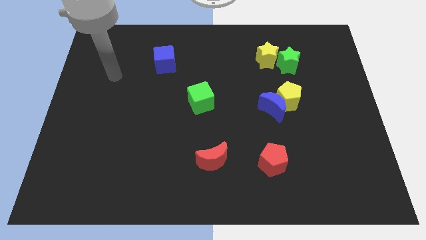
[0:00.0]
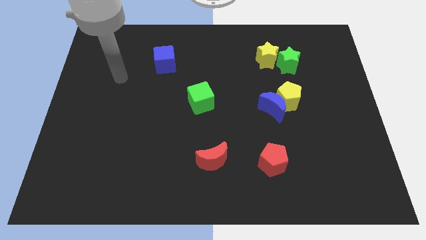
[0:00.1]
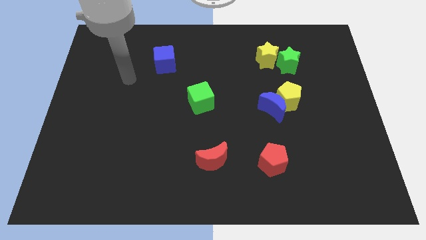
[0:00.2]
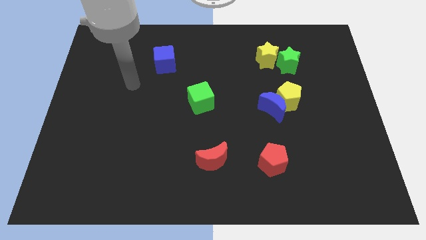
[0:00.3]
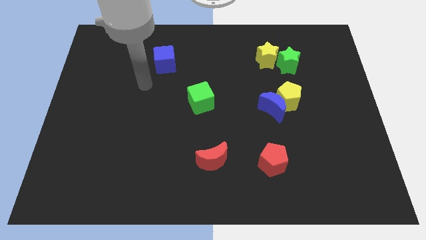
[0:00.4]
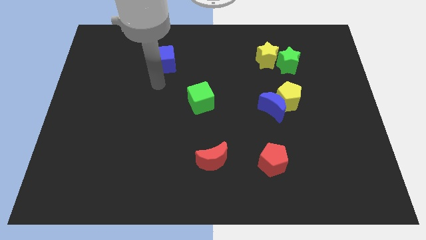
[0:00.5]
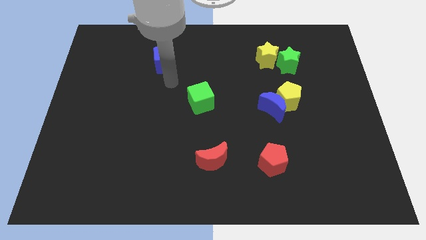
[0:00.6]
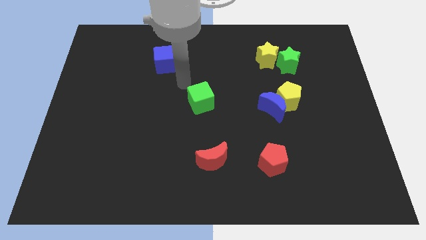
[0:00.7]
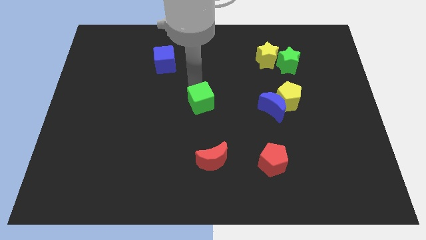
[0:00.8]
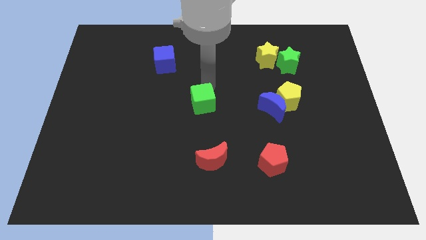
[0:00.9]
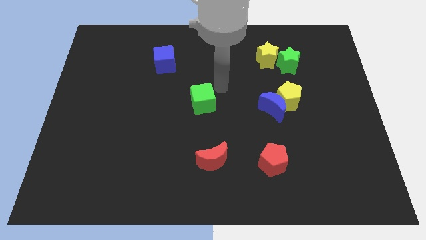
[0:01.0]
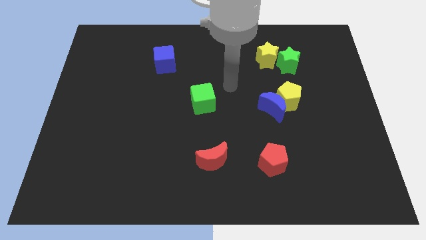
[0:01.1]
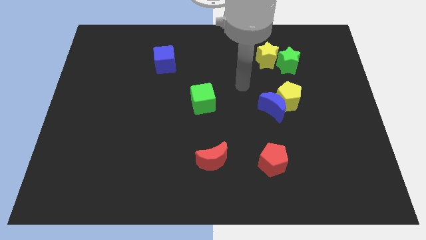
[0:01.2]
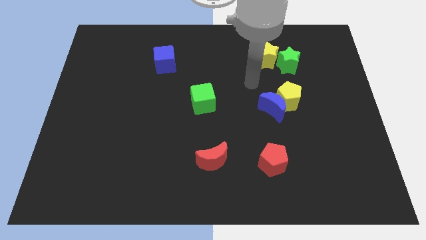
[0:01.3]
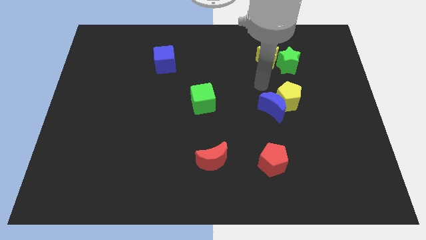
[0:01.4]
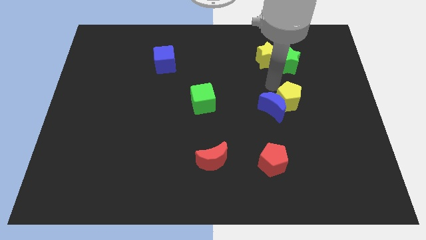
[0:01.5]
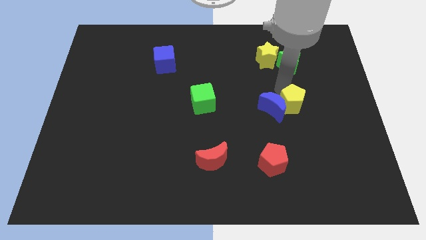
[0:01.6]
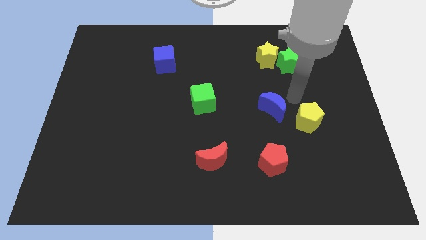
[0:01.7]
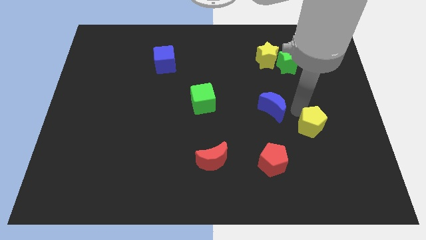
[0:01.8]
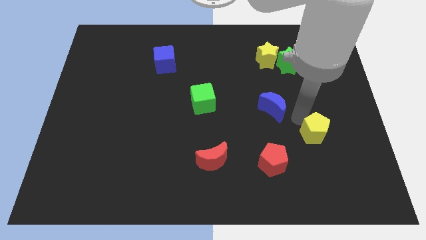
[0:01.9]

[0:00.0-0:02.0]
pull the blue moon apart from the yellow pentagon

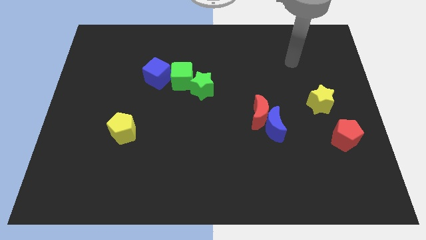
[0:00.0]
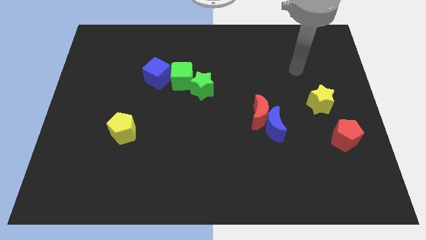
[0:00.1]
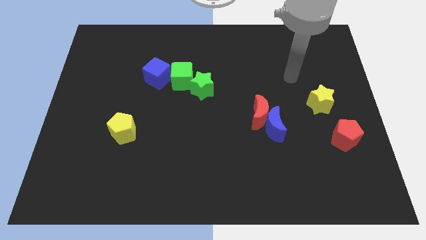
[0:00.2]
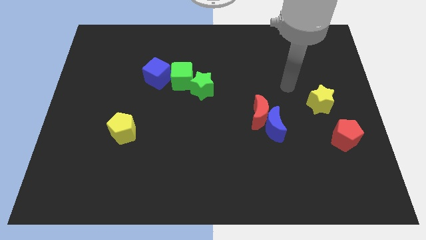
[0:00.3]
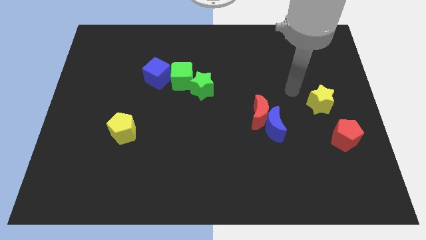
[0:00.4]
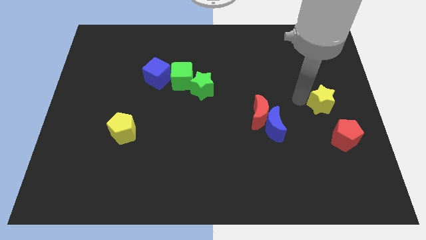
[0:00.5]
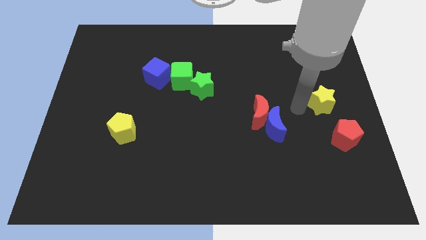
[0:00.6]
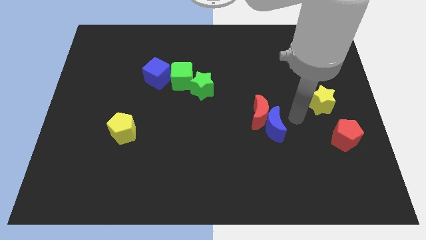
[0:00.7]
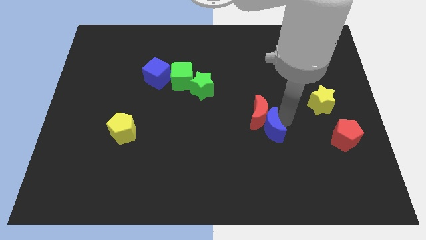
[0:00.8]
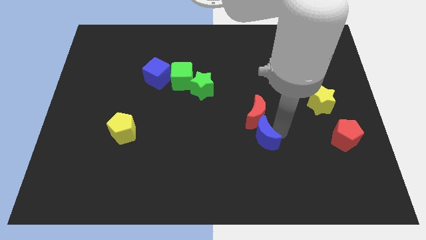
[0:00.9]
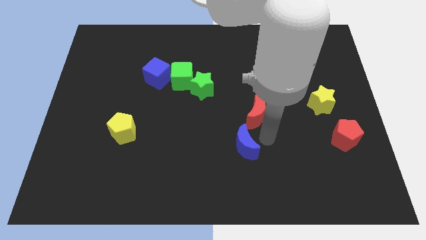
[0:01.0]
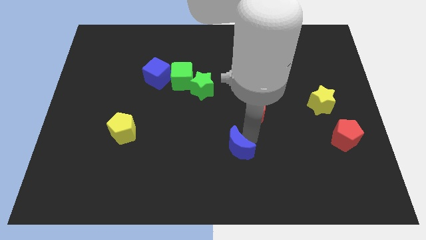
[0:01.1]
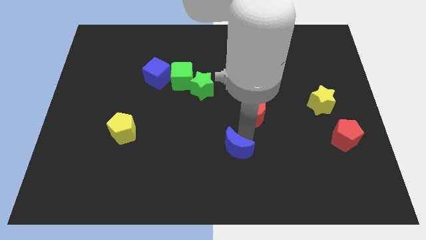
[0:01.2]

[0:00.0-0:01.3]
pull the red moon apart from the blue moon

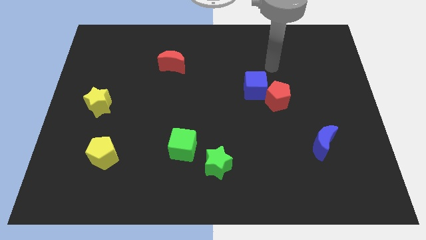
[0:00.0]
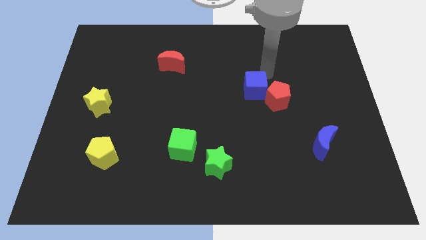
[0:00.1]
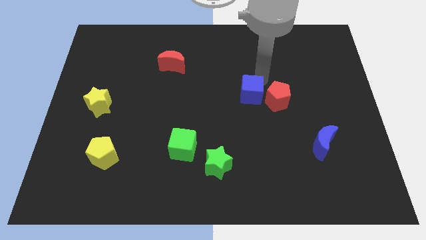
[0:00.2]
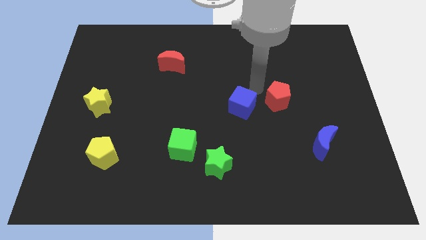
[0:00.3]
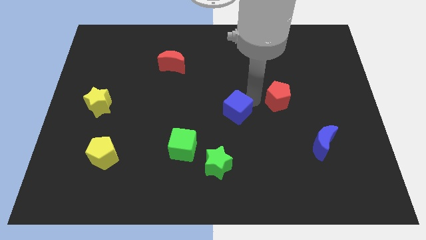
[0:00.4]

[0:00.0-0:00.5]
move the red pentagon away from the blue cube

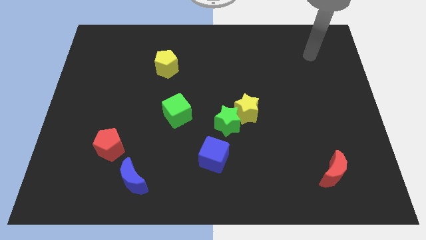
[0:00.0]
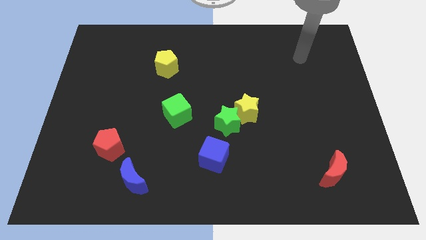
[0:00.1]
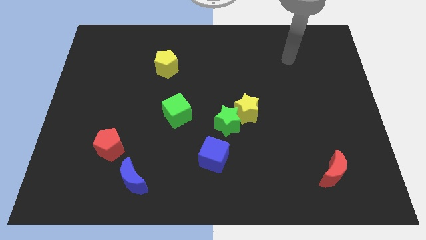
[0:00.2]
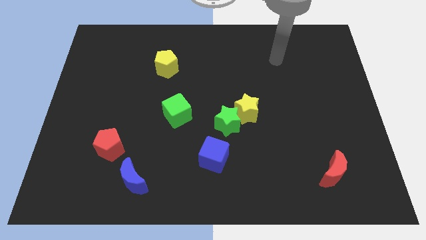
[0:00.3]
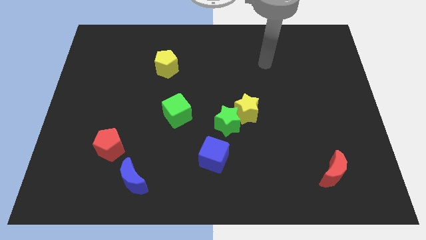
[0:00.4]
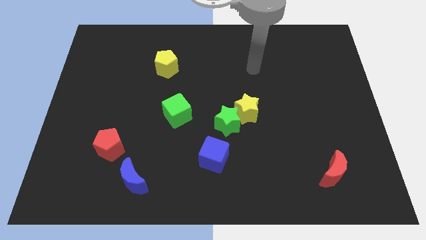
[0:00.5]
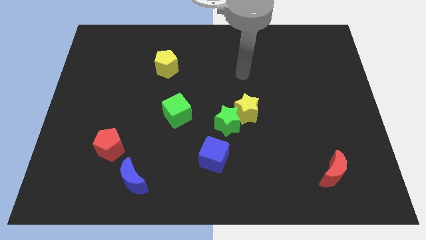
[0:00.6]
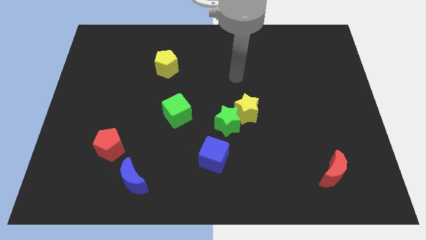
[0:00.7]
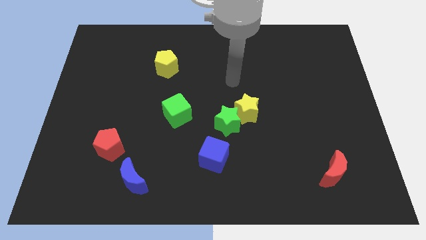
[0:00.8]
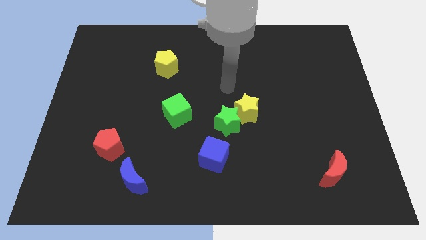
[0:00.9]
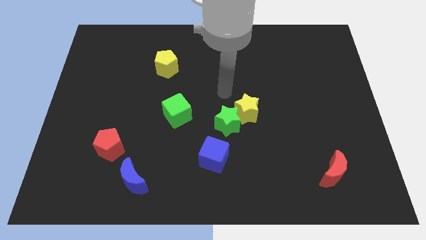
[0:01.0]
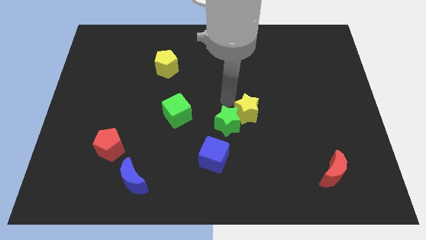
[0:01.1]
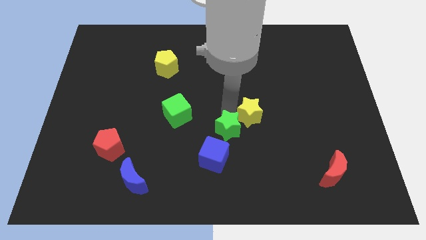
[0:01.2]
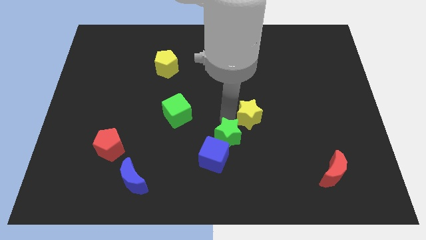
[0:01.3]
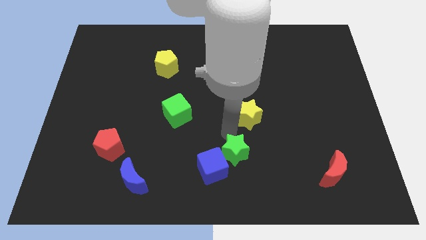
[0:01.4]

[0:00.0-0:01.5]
separate the yellow star from the green star

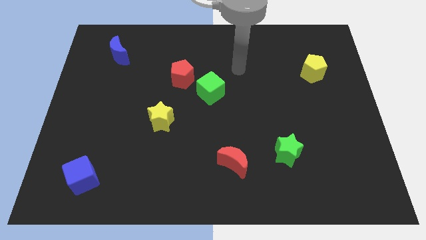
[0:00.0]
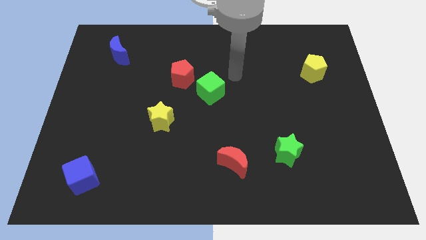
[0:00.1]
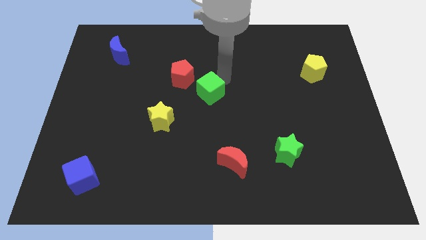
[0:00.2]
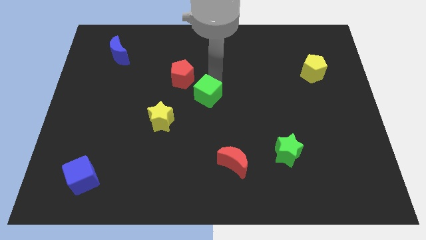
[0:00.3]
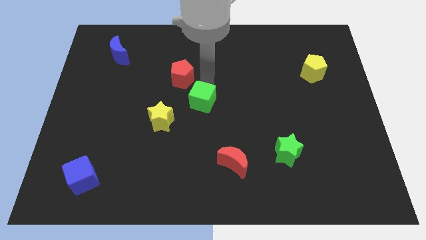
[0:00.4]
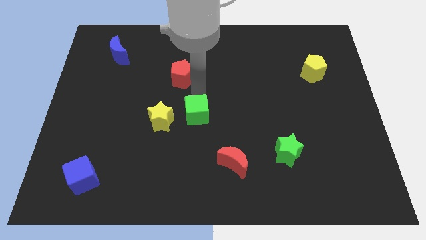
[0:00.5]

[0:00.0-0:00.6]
pull the red pentagon apart from the green cube

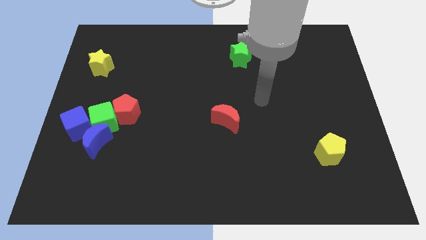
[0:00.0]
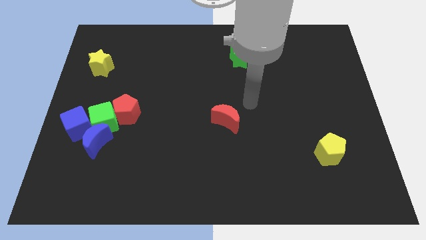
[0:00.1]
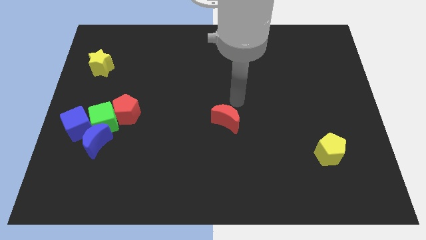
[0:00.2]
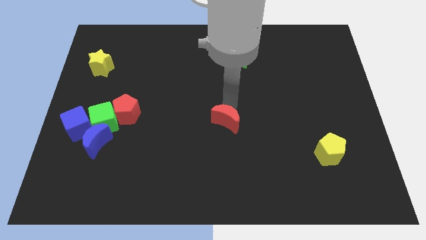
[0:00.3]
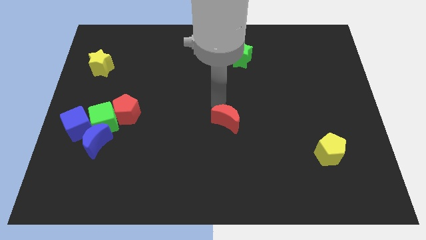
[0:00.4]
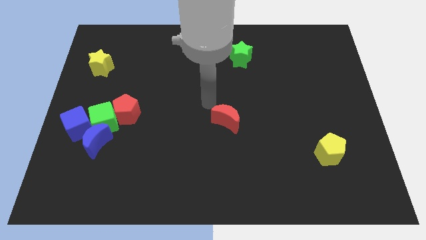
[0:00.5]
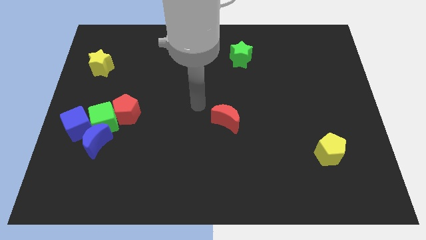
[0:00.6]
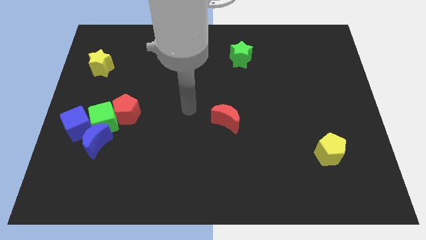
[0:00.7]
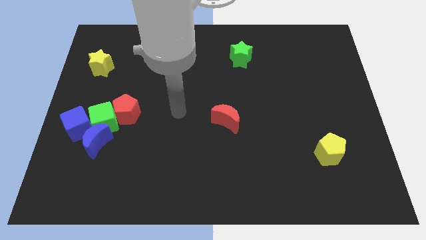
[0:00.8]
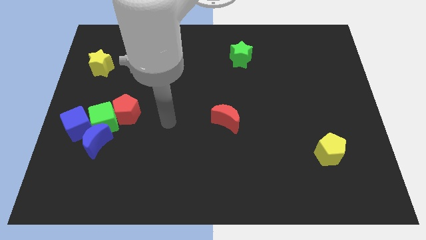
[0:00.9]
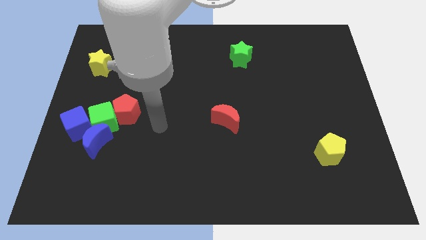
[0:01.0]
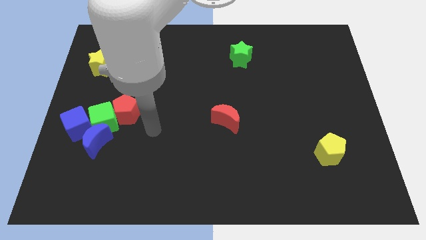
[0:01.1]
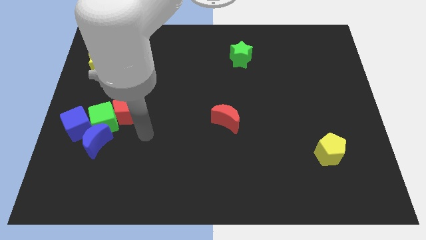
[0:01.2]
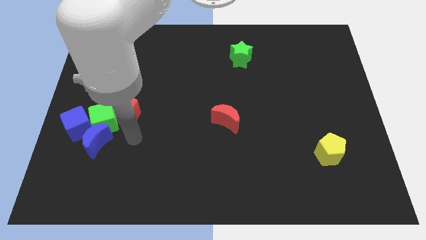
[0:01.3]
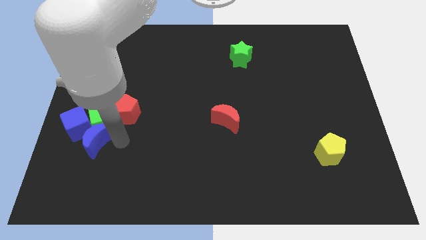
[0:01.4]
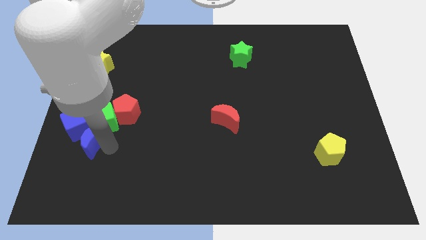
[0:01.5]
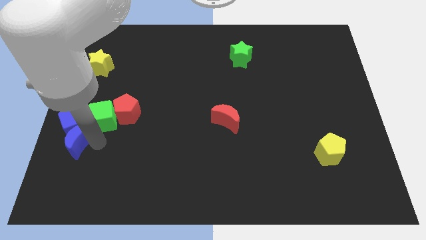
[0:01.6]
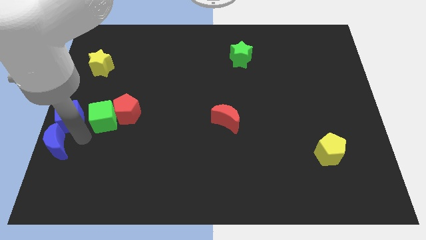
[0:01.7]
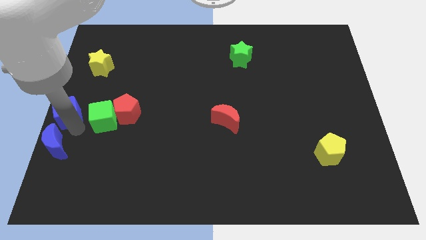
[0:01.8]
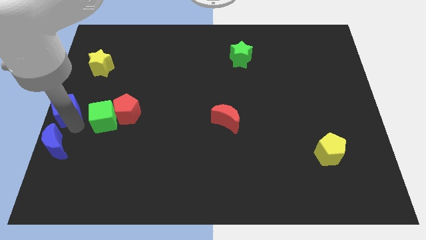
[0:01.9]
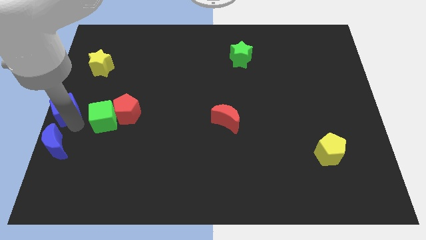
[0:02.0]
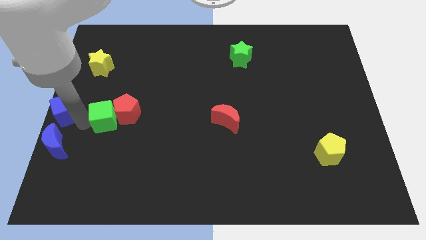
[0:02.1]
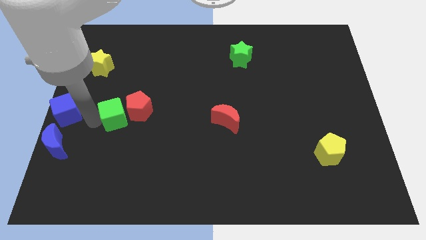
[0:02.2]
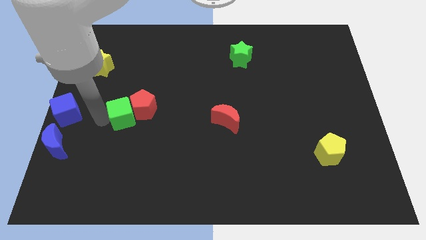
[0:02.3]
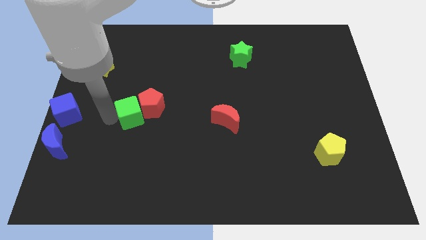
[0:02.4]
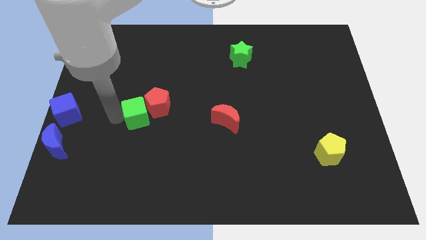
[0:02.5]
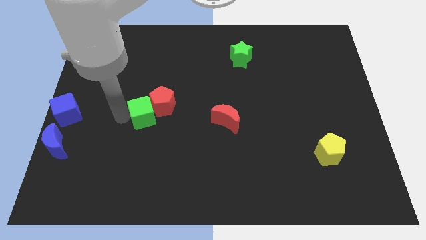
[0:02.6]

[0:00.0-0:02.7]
move the green cube away from the red pentagon, blue moon, and blue cube

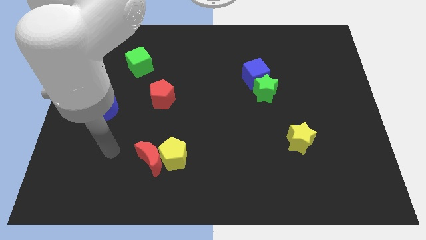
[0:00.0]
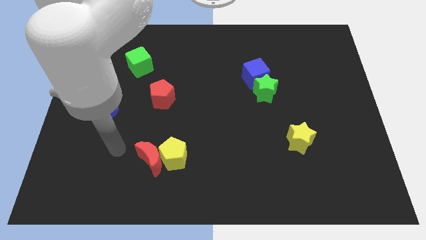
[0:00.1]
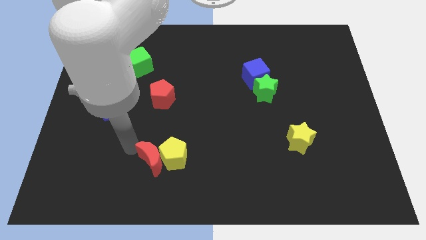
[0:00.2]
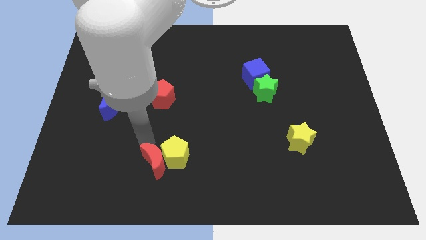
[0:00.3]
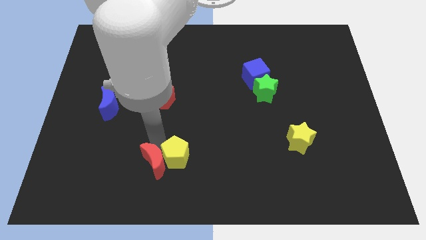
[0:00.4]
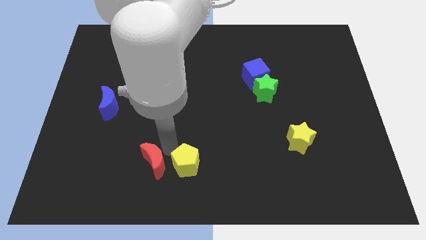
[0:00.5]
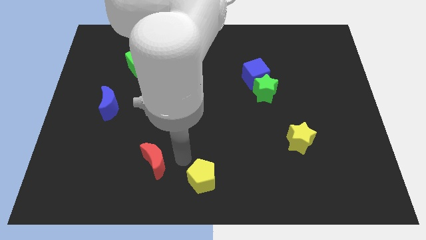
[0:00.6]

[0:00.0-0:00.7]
separate the red moon from the yellow pentagon

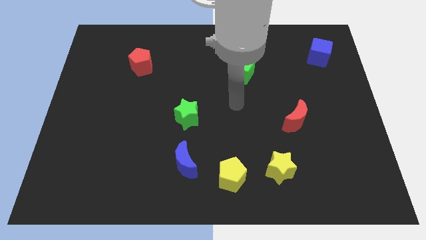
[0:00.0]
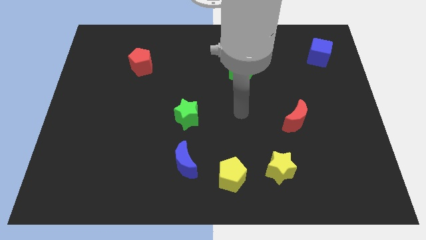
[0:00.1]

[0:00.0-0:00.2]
pull the yellow star apart from the yellow pentagon

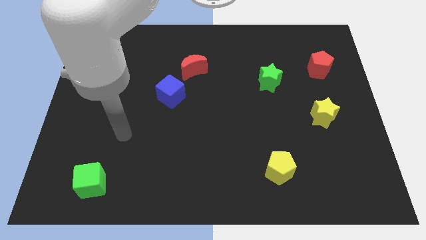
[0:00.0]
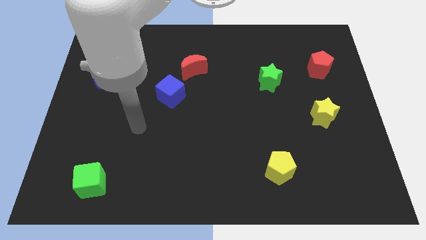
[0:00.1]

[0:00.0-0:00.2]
pull the red moon apart from the blue cube
